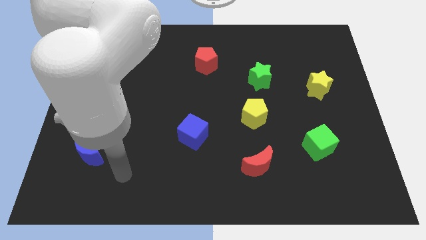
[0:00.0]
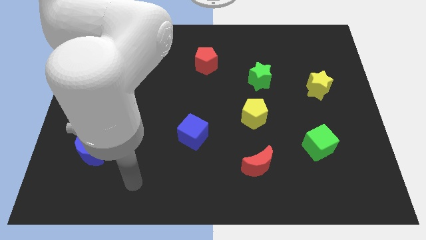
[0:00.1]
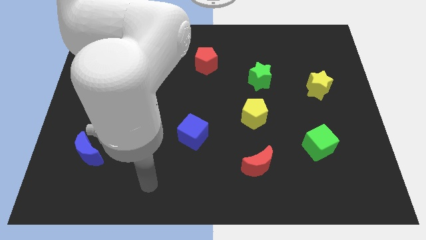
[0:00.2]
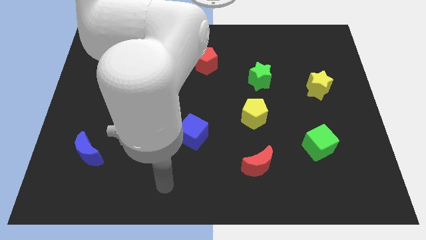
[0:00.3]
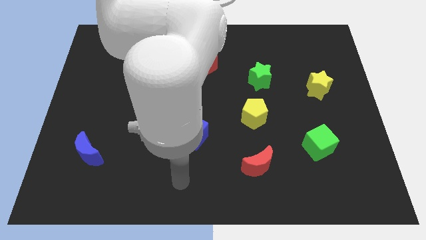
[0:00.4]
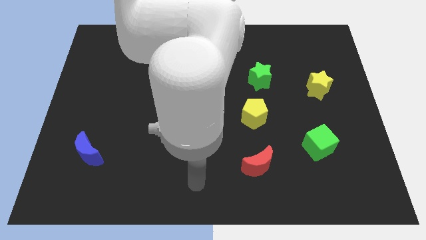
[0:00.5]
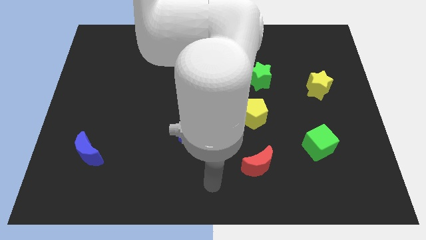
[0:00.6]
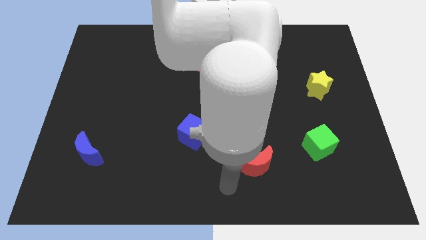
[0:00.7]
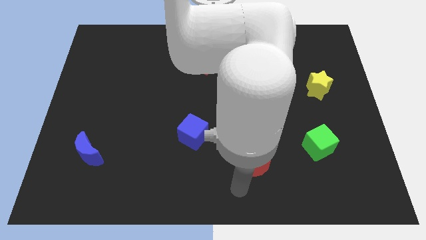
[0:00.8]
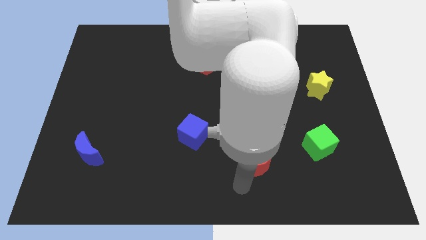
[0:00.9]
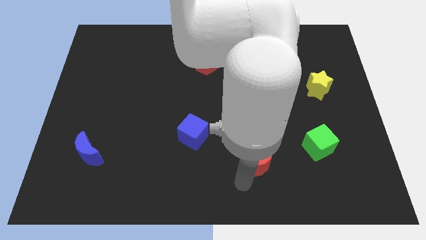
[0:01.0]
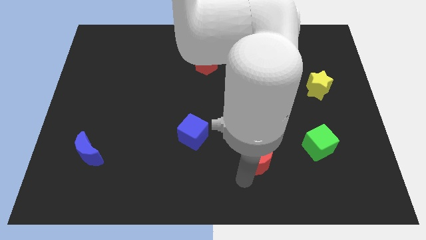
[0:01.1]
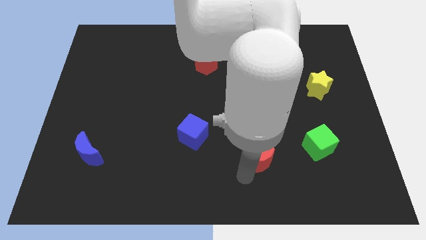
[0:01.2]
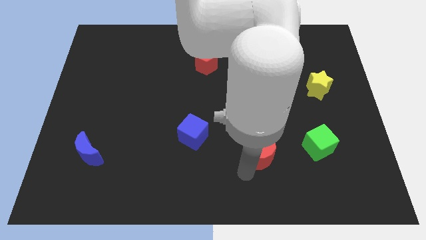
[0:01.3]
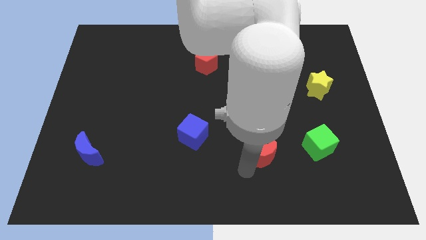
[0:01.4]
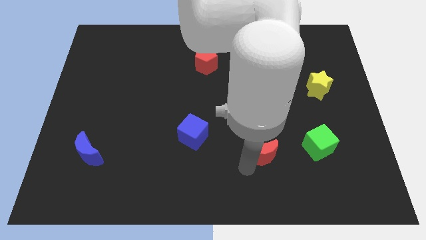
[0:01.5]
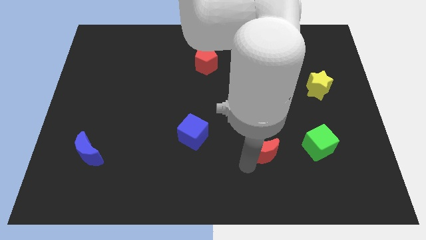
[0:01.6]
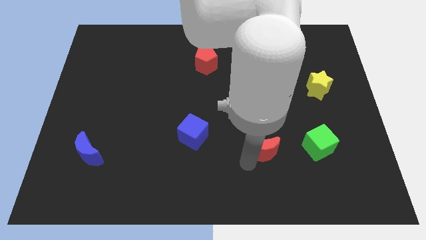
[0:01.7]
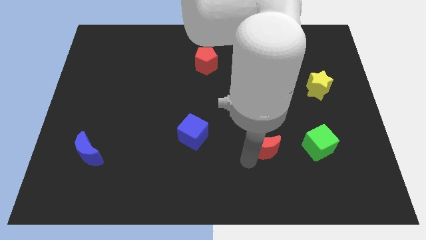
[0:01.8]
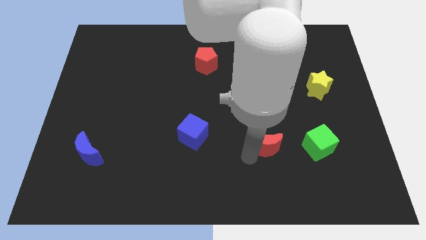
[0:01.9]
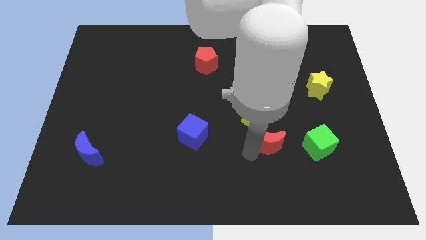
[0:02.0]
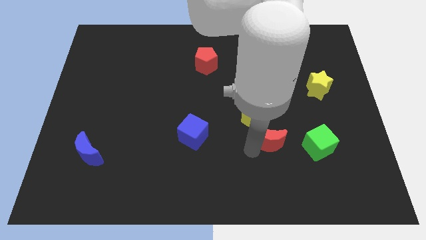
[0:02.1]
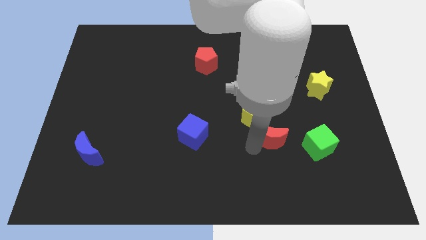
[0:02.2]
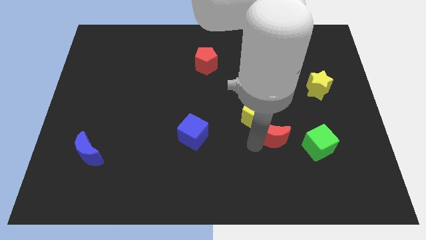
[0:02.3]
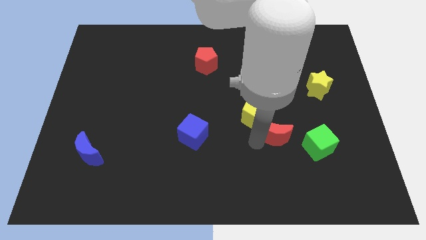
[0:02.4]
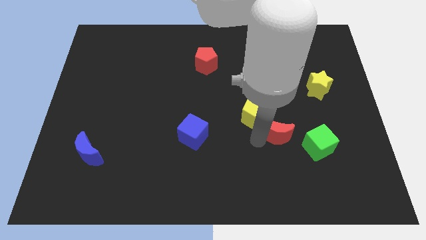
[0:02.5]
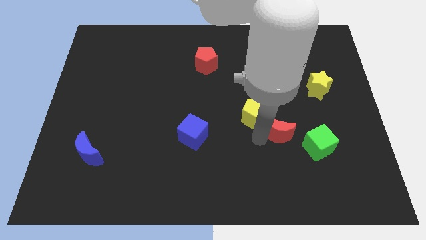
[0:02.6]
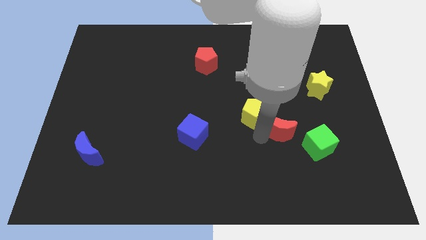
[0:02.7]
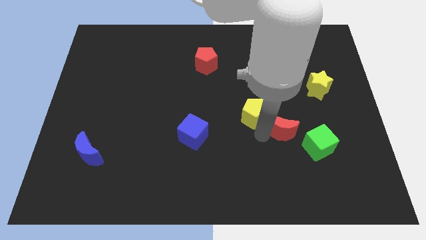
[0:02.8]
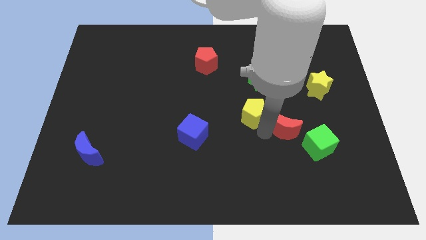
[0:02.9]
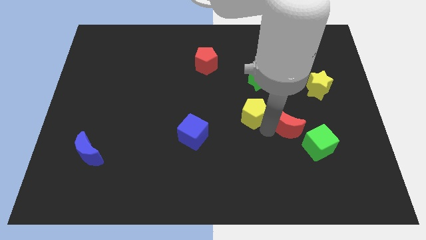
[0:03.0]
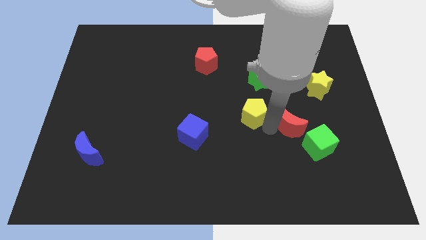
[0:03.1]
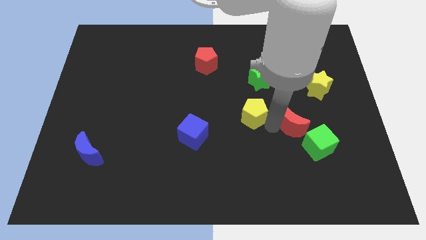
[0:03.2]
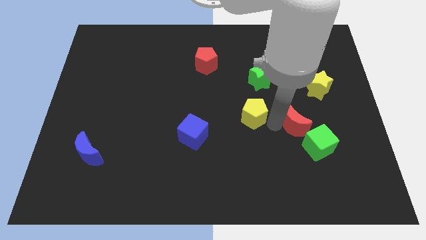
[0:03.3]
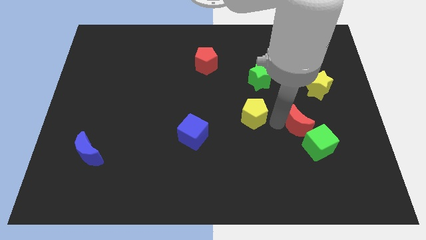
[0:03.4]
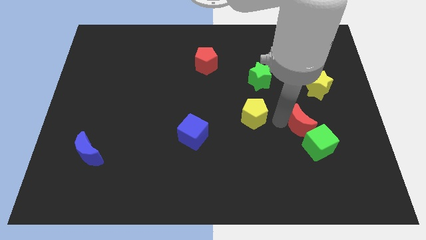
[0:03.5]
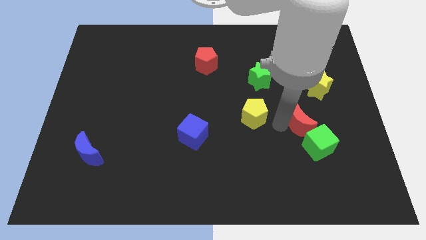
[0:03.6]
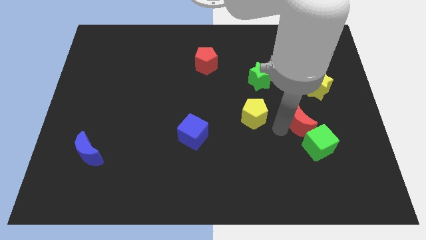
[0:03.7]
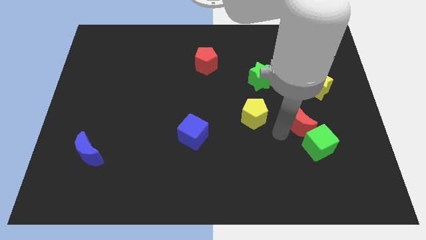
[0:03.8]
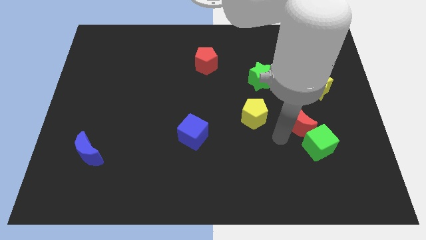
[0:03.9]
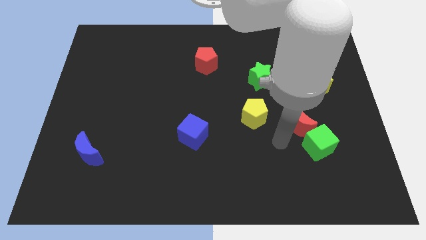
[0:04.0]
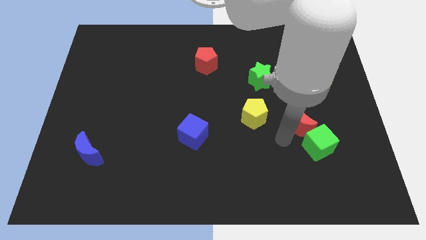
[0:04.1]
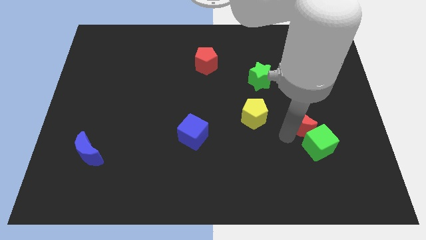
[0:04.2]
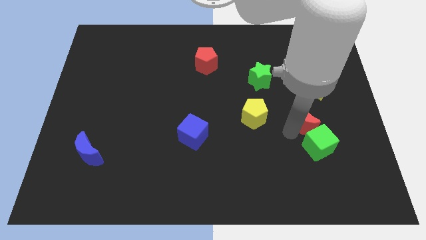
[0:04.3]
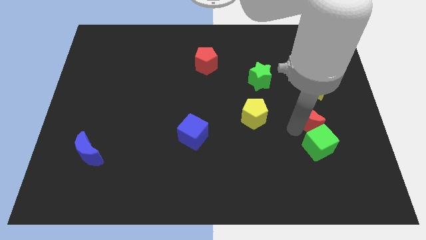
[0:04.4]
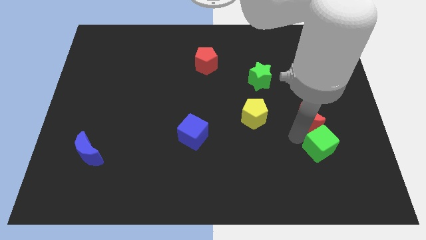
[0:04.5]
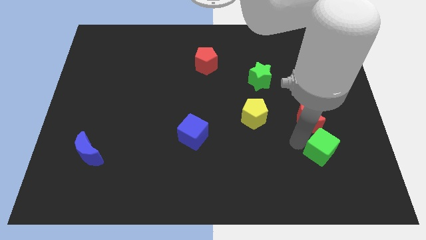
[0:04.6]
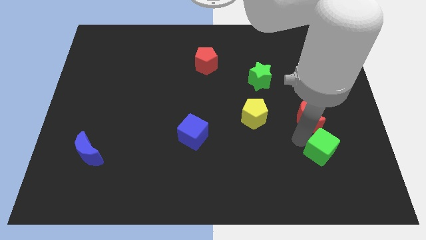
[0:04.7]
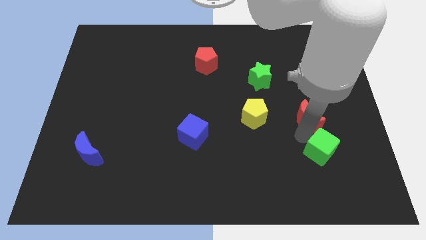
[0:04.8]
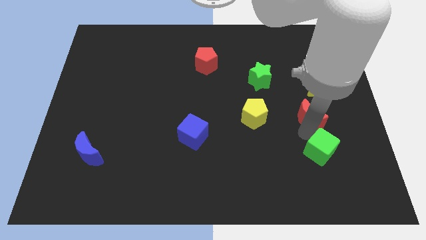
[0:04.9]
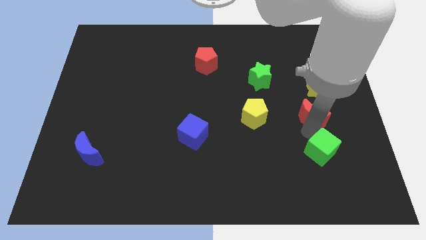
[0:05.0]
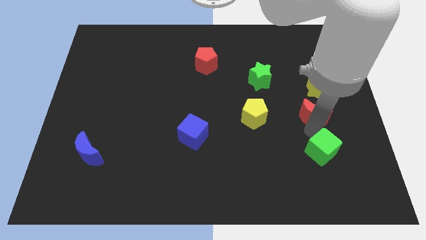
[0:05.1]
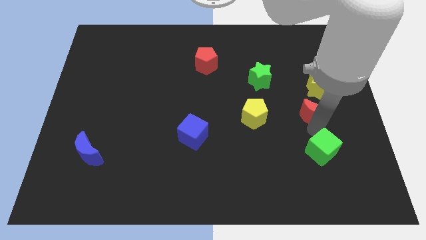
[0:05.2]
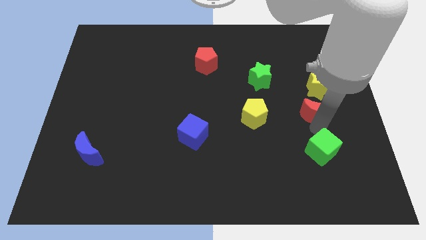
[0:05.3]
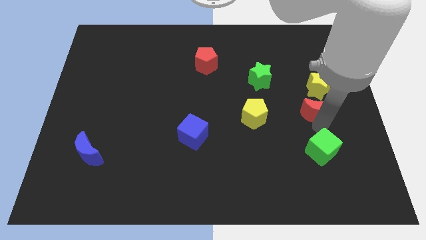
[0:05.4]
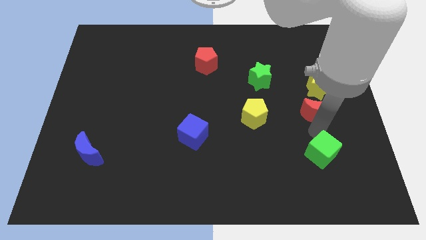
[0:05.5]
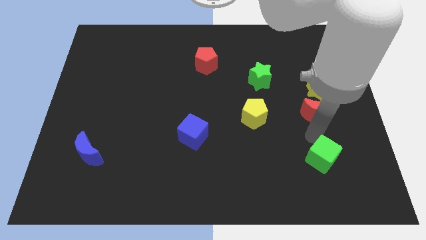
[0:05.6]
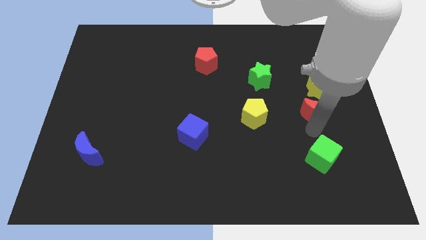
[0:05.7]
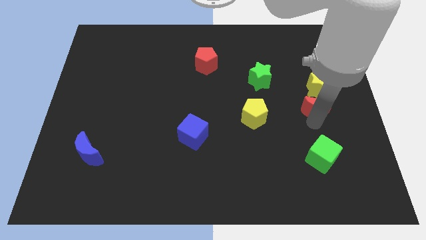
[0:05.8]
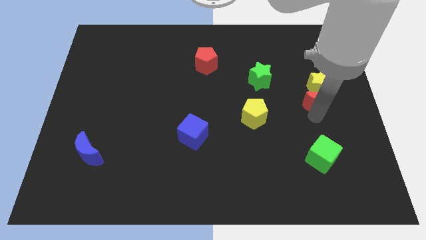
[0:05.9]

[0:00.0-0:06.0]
slide the red moon to the yellow star

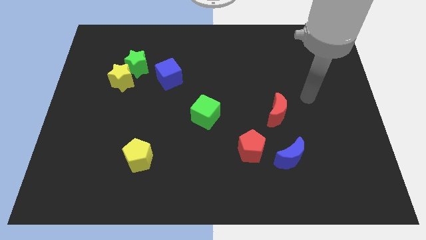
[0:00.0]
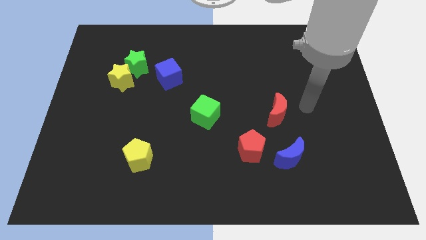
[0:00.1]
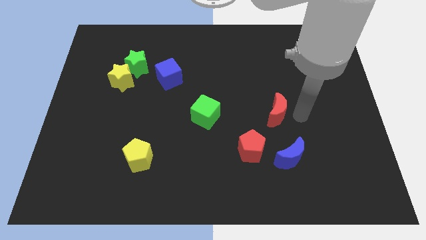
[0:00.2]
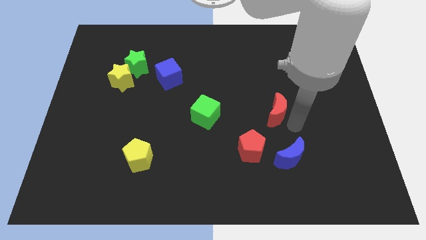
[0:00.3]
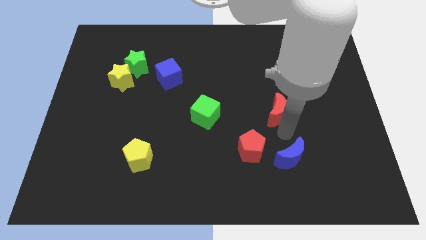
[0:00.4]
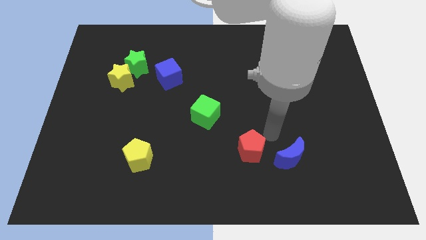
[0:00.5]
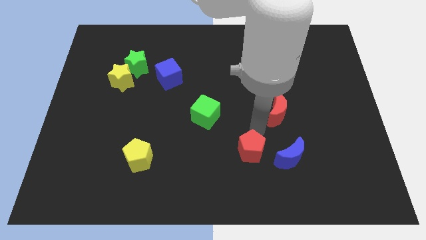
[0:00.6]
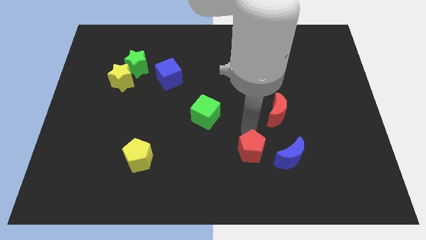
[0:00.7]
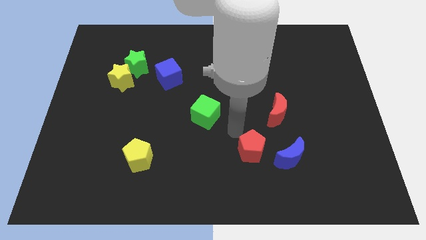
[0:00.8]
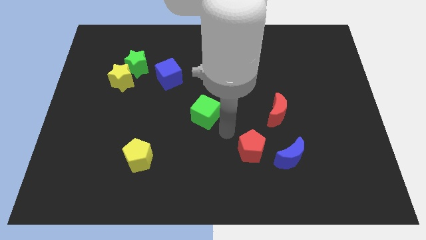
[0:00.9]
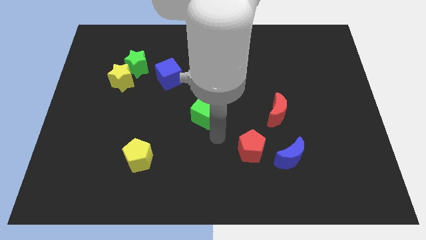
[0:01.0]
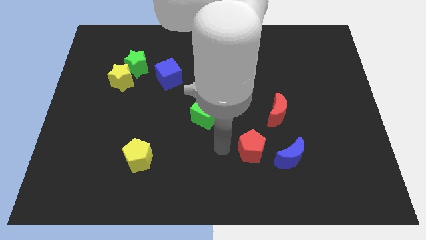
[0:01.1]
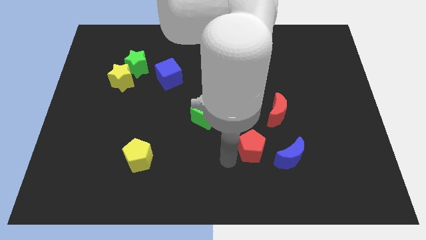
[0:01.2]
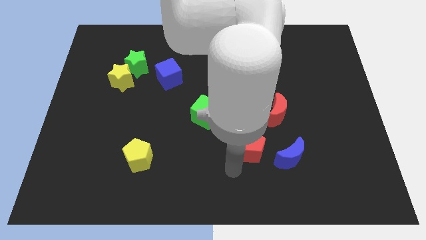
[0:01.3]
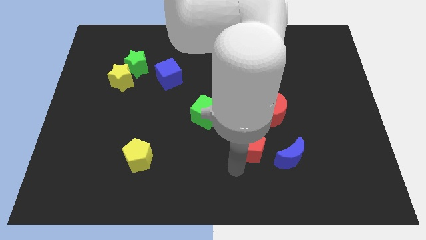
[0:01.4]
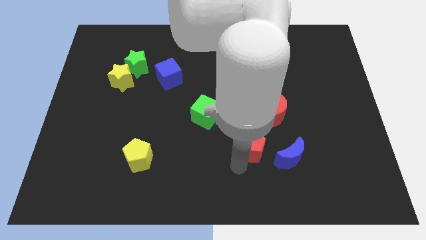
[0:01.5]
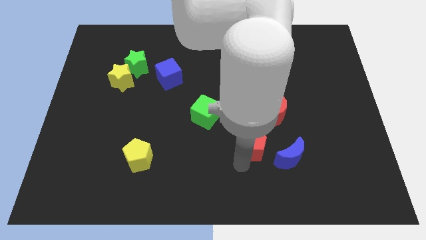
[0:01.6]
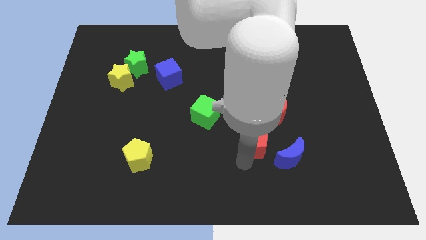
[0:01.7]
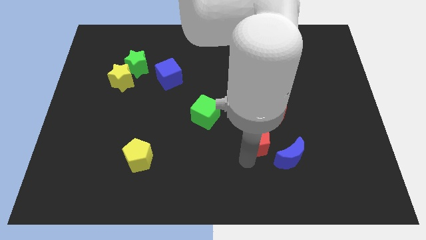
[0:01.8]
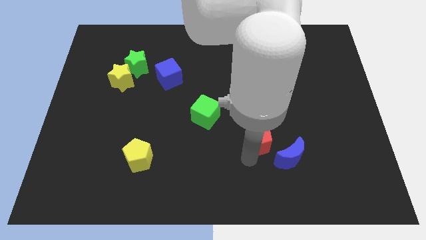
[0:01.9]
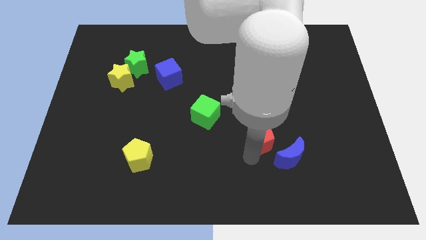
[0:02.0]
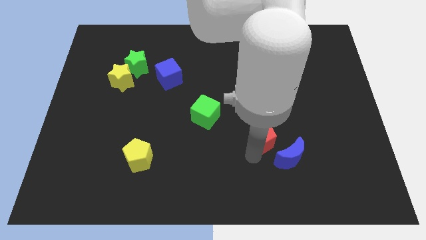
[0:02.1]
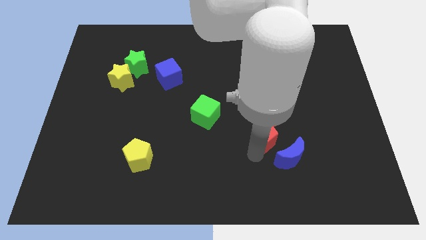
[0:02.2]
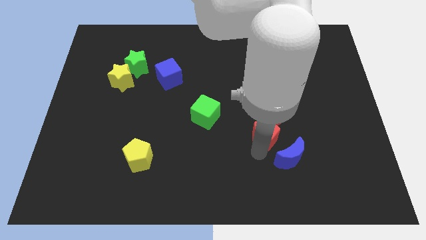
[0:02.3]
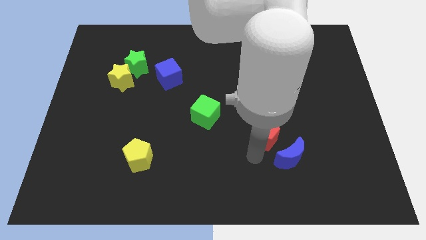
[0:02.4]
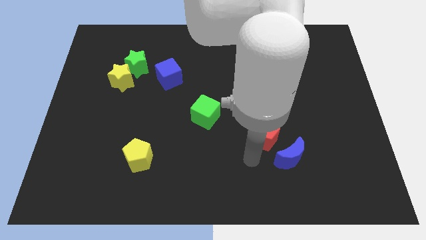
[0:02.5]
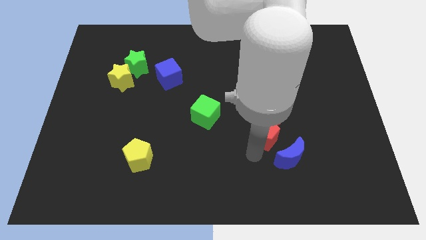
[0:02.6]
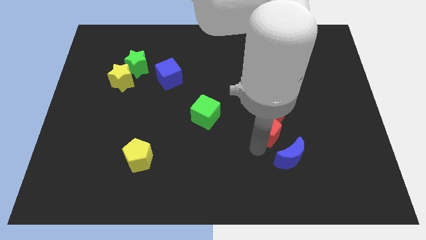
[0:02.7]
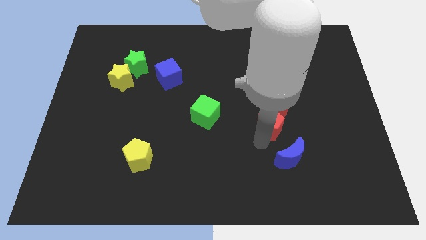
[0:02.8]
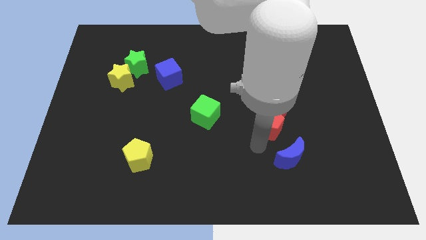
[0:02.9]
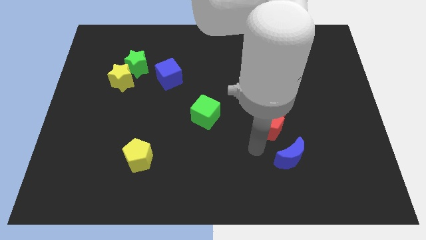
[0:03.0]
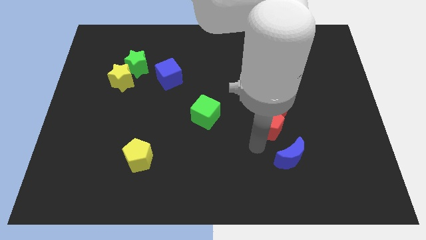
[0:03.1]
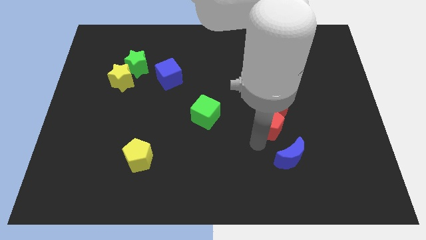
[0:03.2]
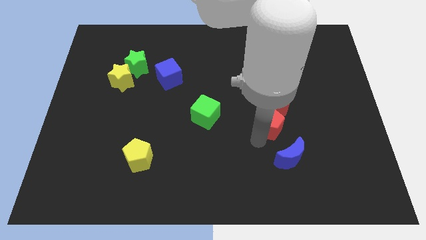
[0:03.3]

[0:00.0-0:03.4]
push the red pentagon to the red moon
